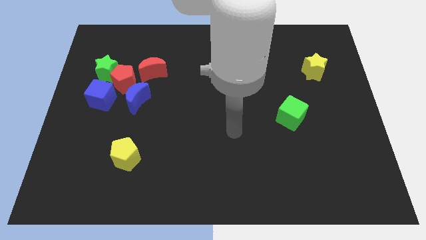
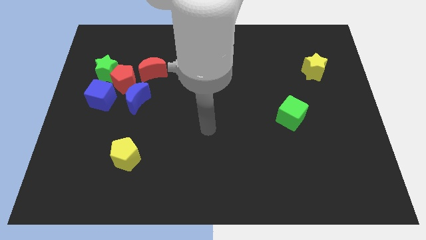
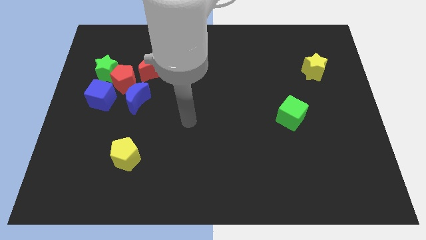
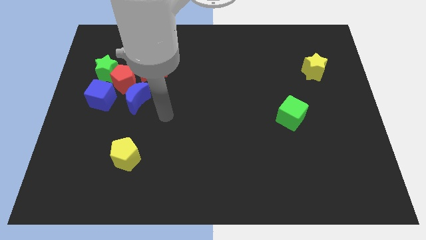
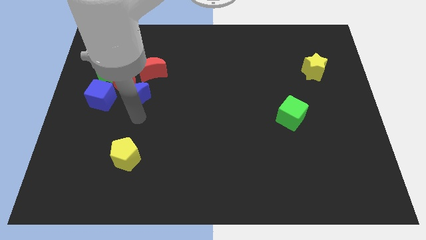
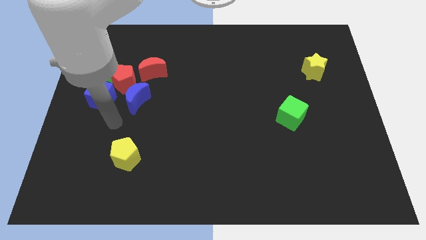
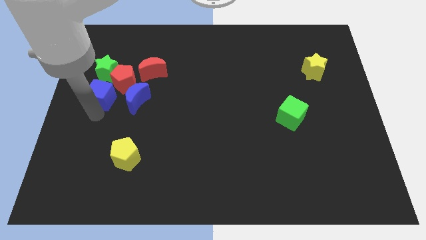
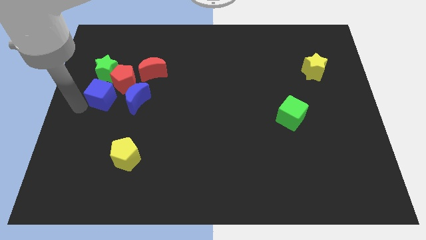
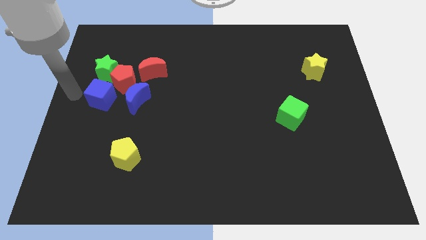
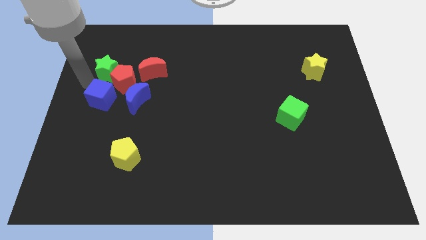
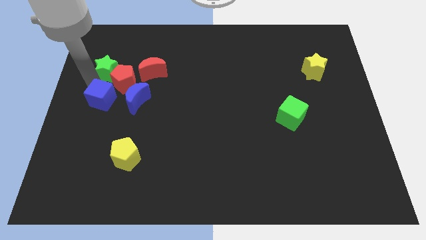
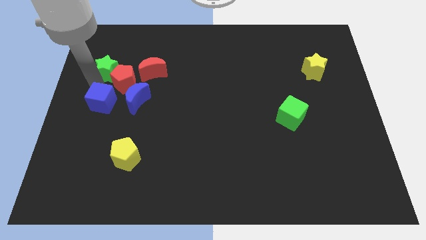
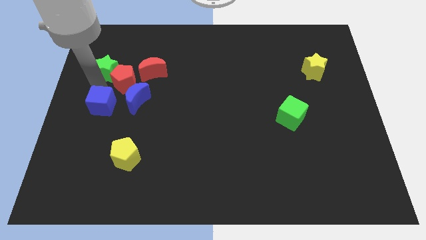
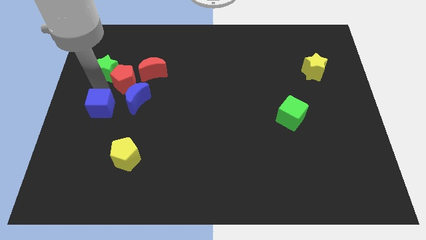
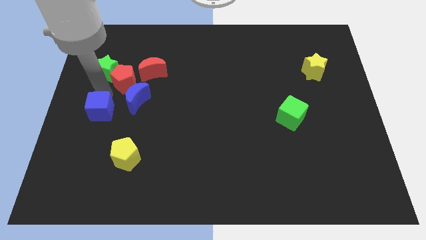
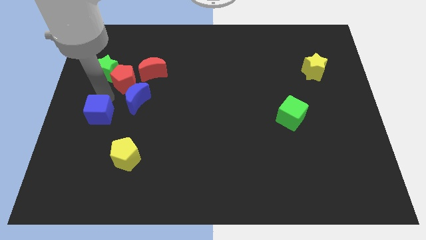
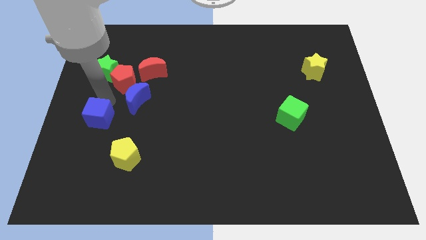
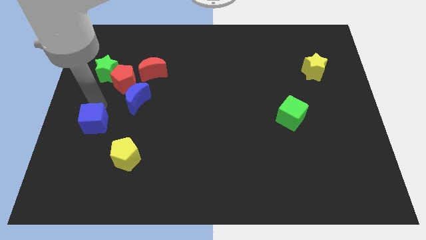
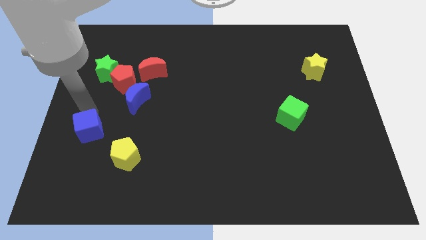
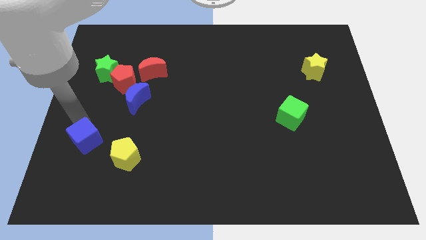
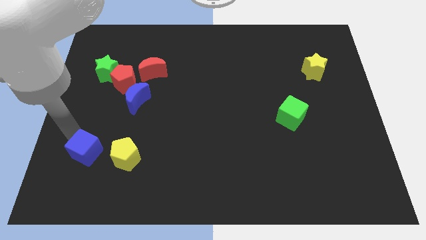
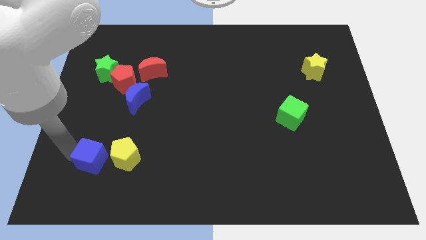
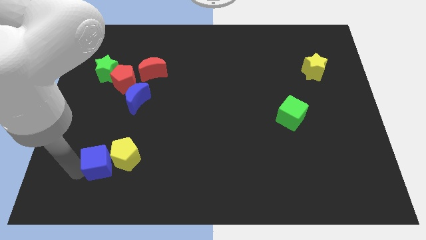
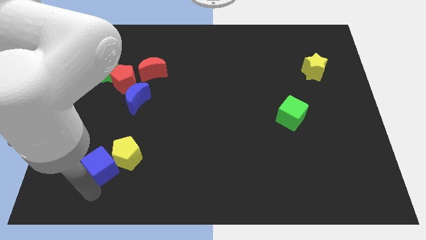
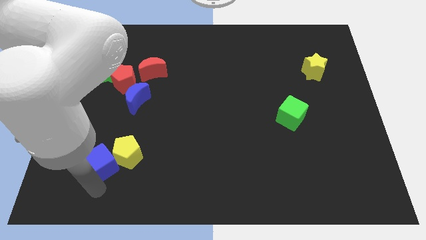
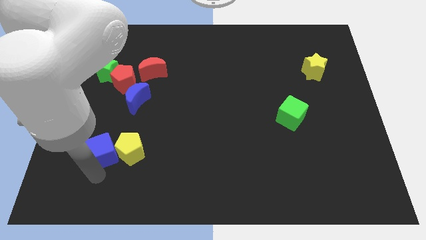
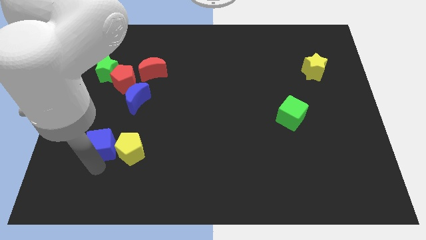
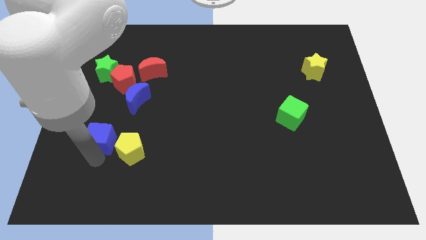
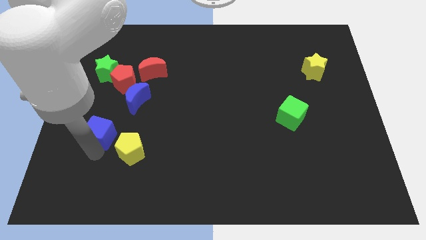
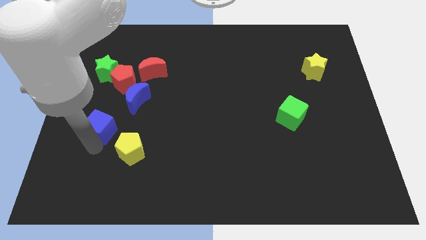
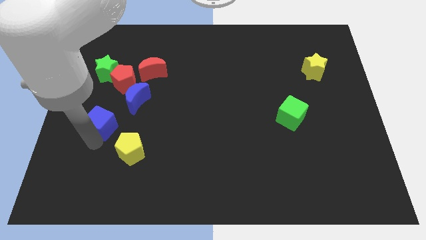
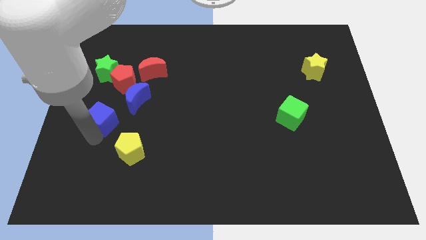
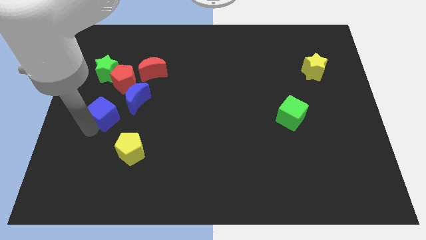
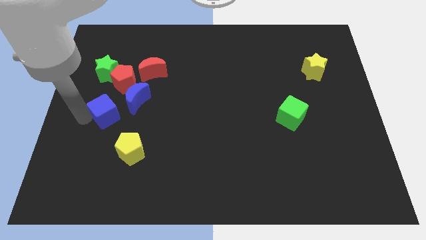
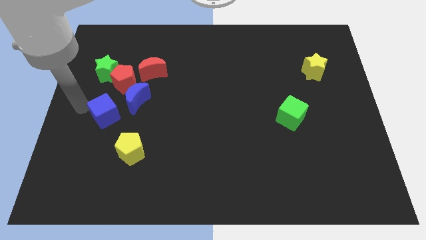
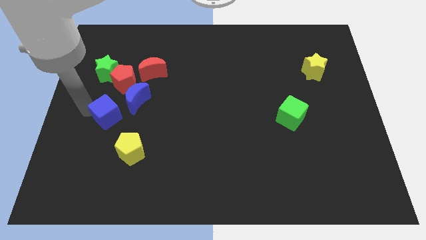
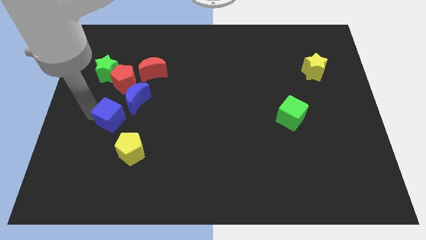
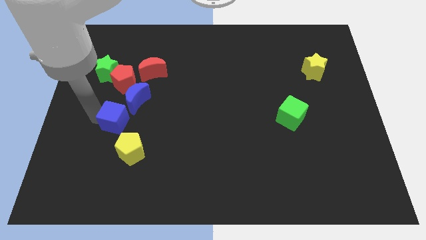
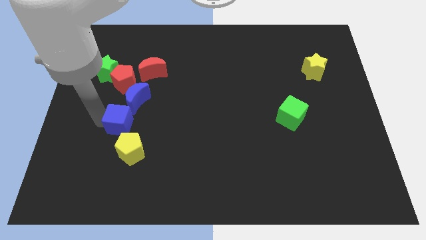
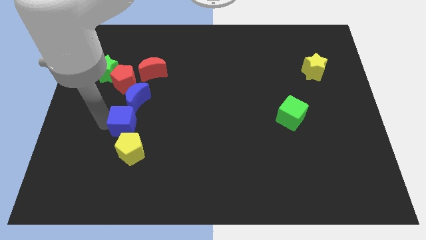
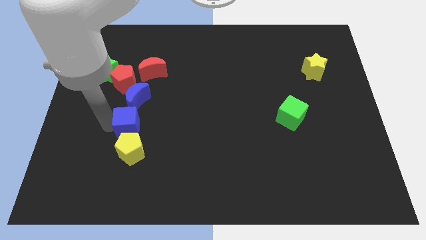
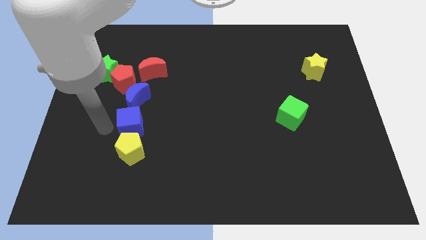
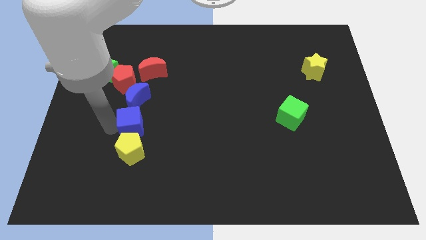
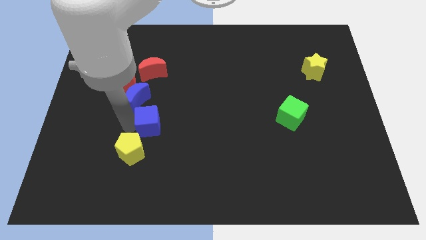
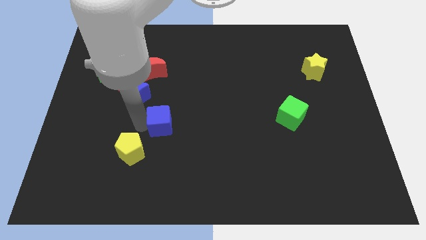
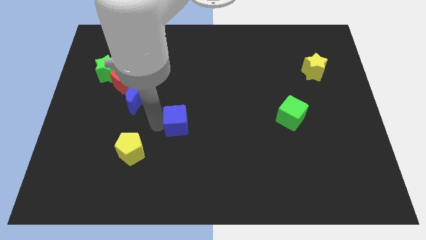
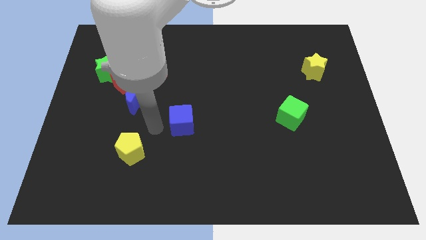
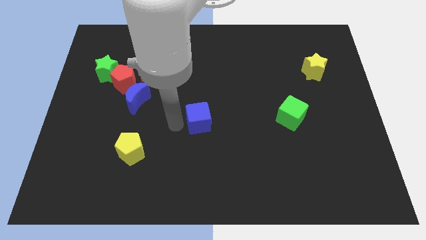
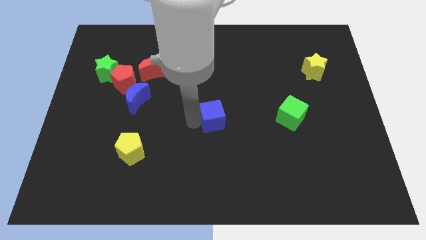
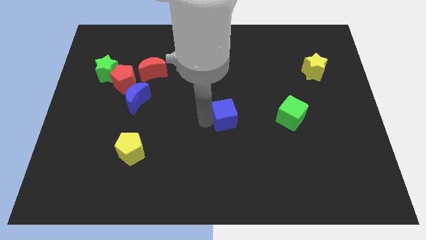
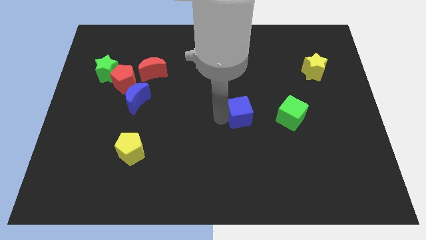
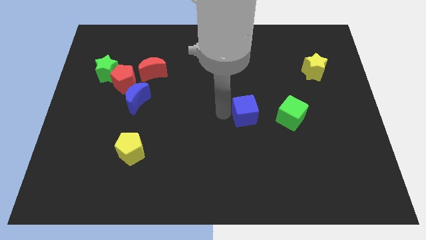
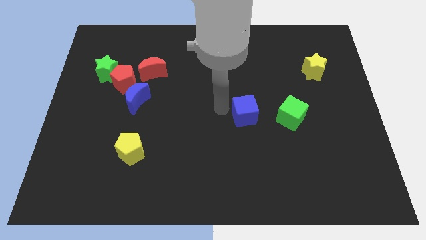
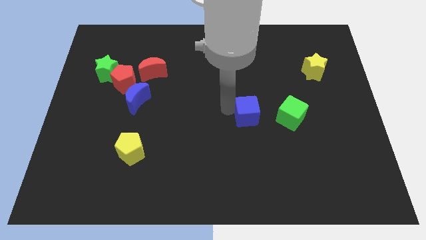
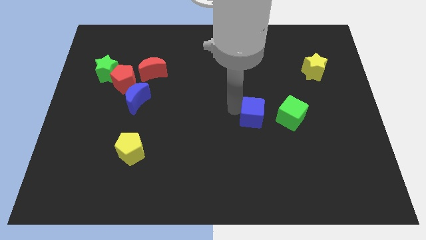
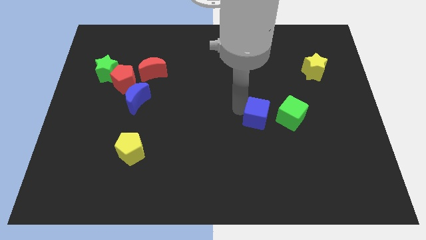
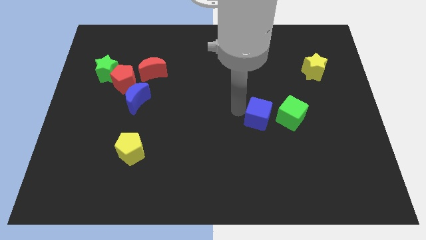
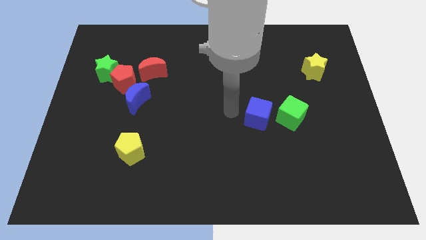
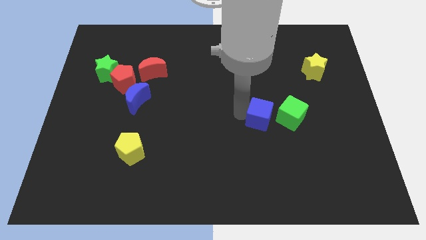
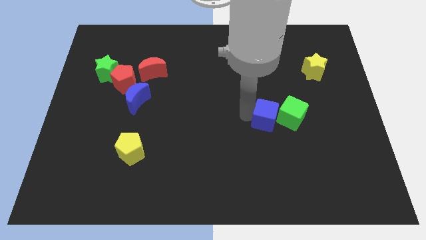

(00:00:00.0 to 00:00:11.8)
slide the blue cube next to the green cube
